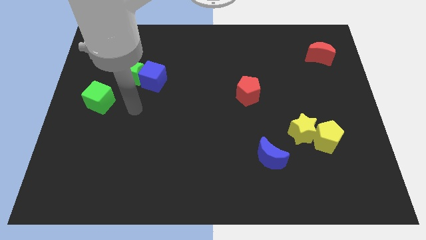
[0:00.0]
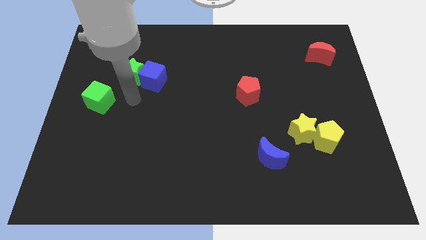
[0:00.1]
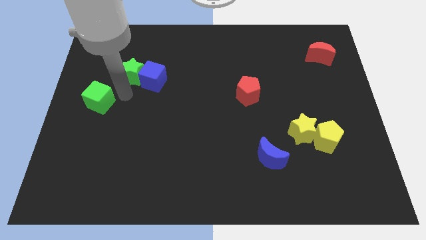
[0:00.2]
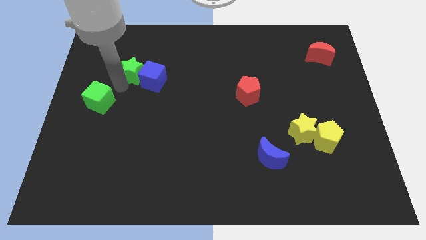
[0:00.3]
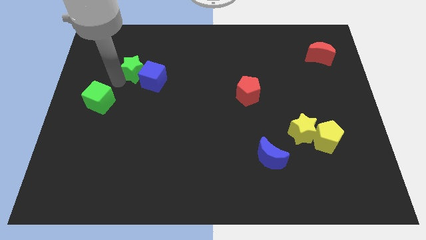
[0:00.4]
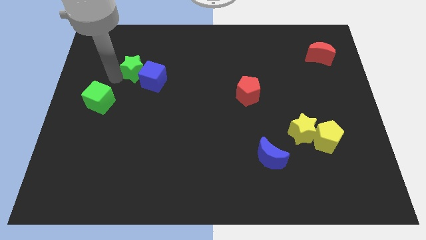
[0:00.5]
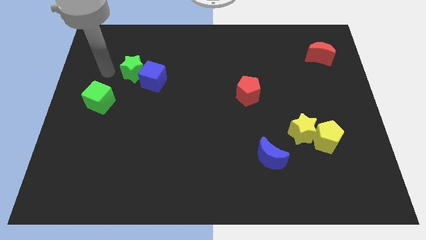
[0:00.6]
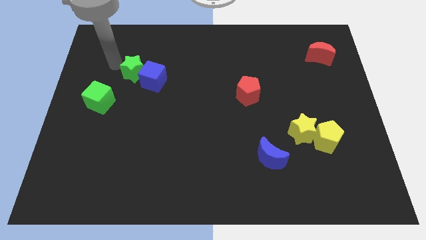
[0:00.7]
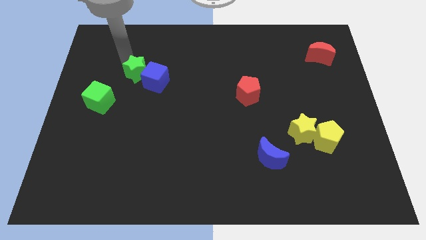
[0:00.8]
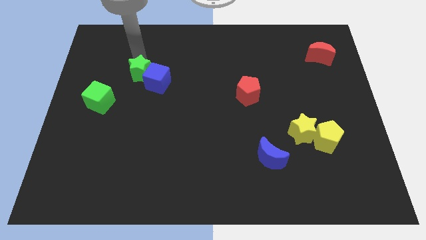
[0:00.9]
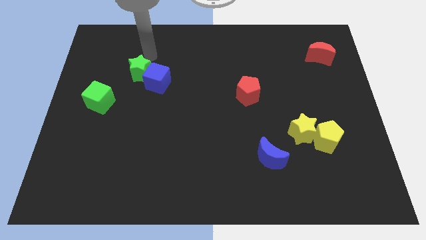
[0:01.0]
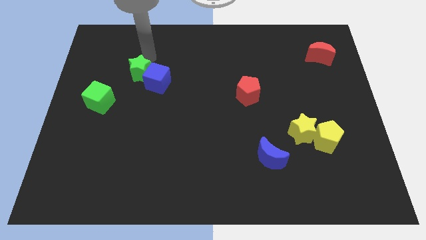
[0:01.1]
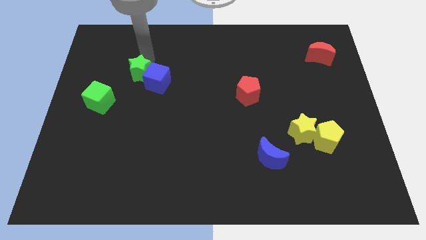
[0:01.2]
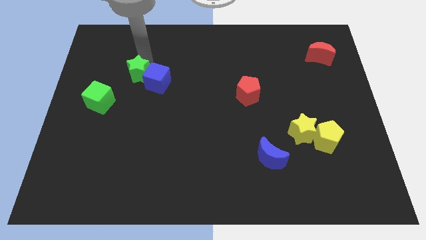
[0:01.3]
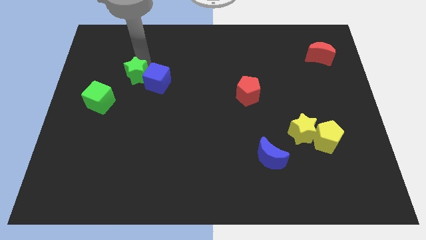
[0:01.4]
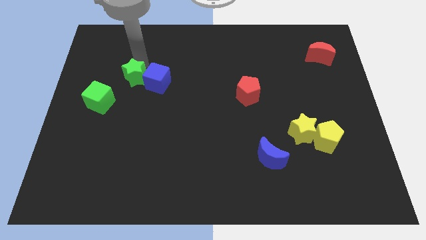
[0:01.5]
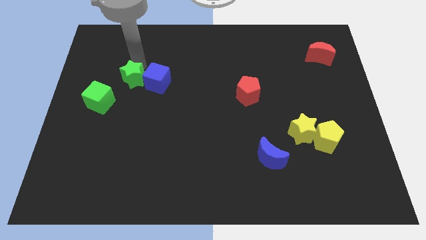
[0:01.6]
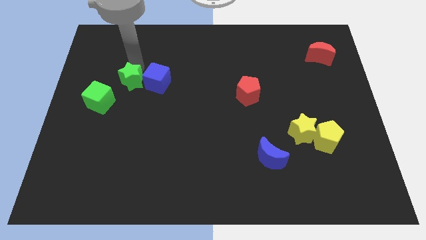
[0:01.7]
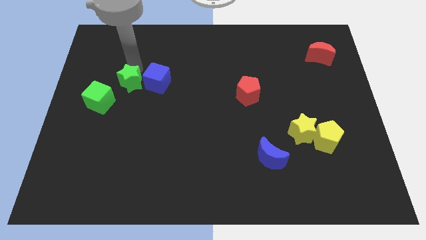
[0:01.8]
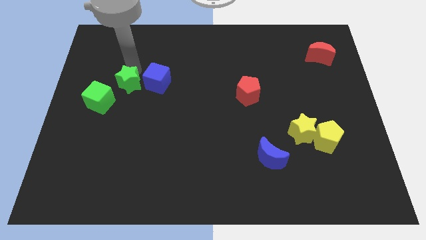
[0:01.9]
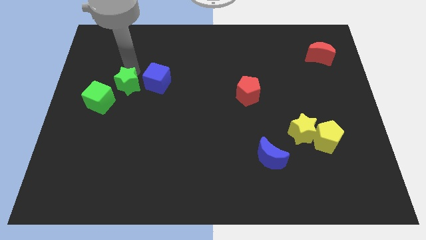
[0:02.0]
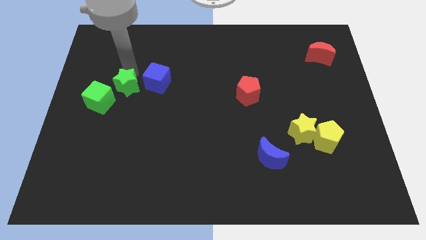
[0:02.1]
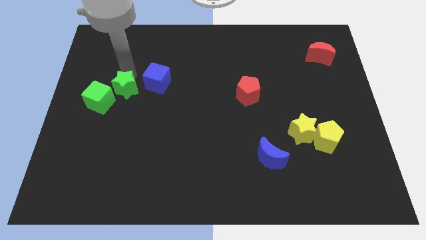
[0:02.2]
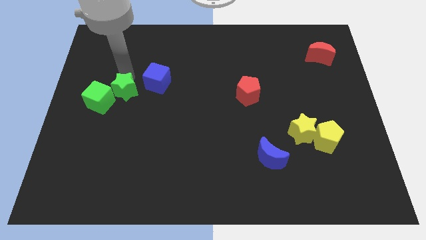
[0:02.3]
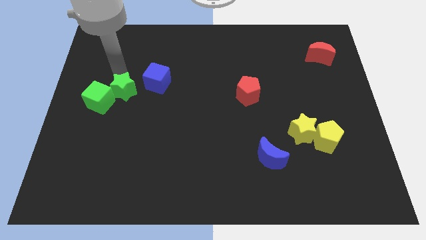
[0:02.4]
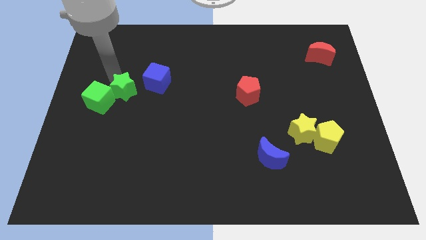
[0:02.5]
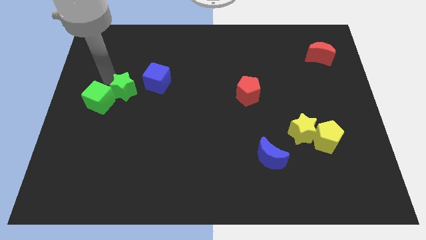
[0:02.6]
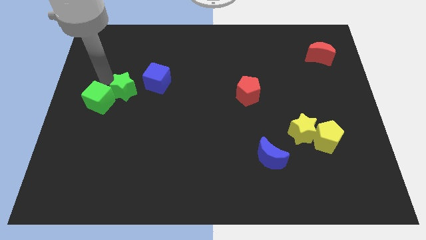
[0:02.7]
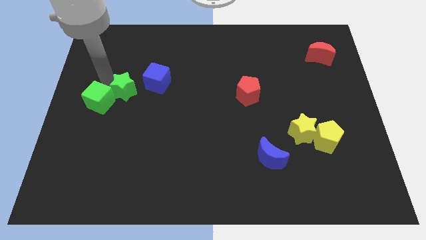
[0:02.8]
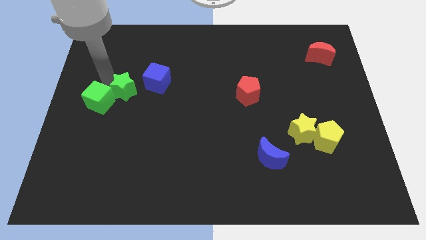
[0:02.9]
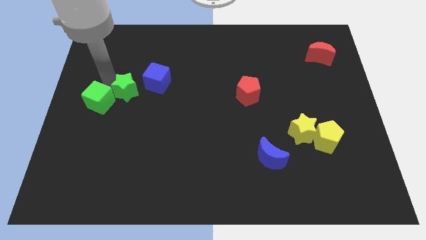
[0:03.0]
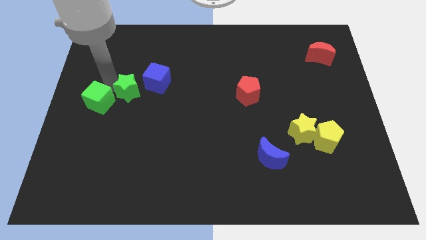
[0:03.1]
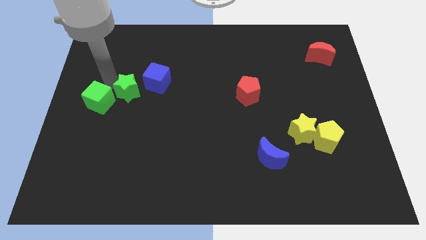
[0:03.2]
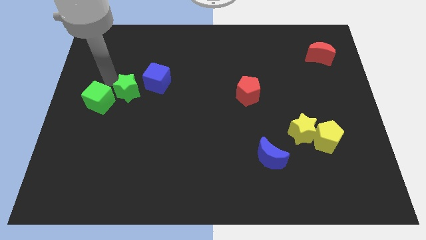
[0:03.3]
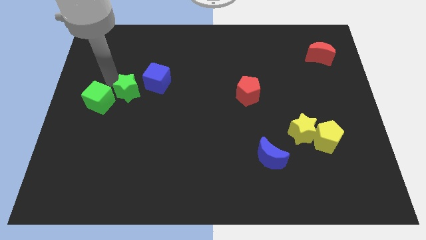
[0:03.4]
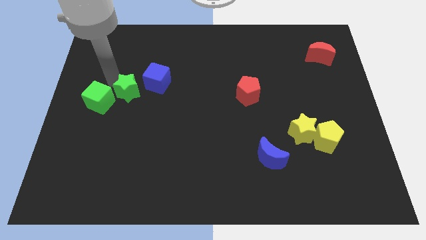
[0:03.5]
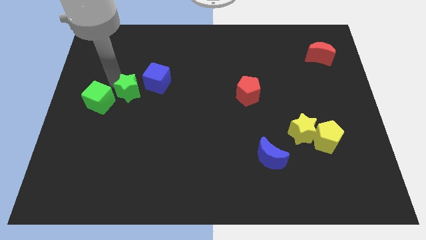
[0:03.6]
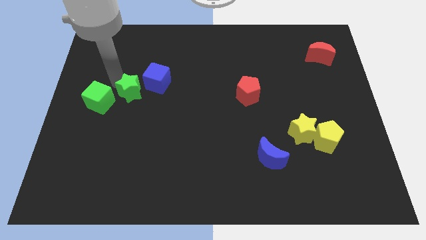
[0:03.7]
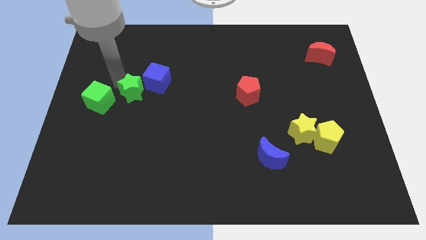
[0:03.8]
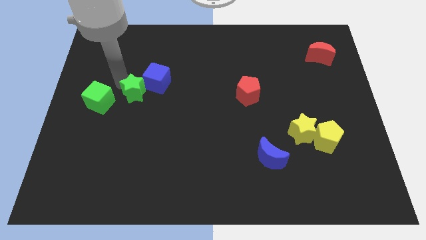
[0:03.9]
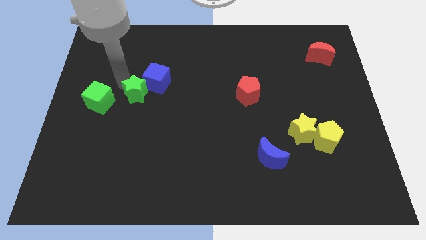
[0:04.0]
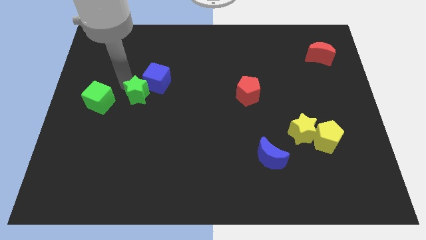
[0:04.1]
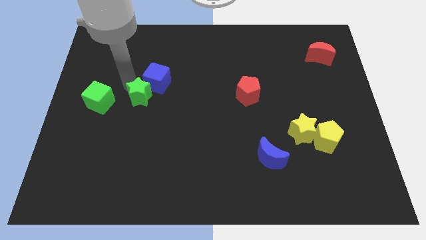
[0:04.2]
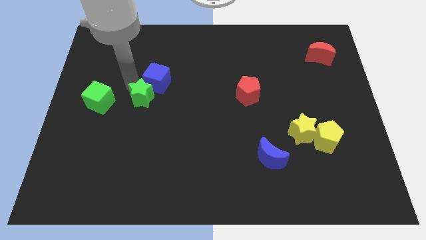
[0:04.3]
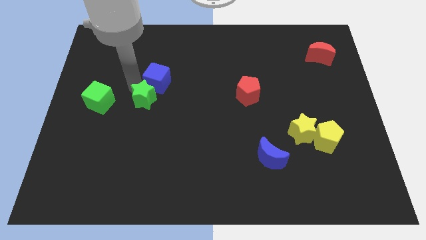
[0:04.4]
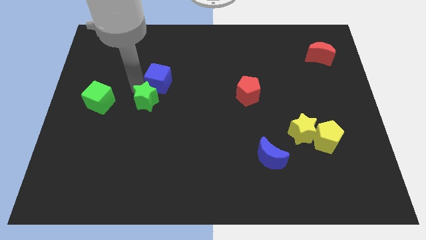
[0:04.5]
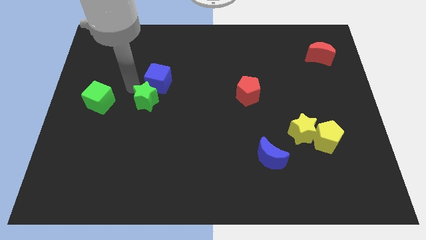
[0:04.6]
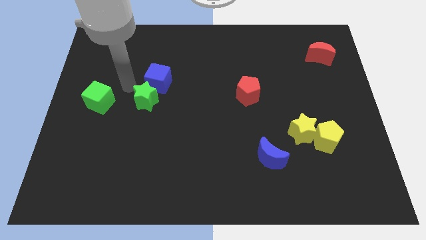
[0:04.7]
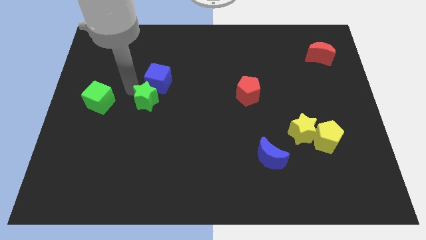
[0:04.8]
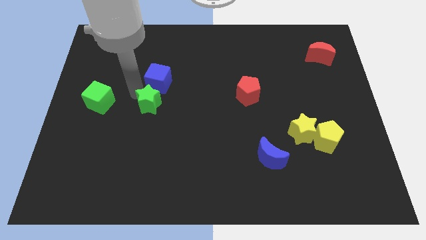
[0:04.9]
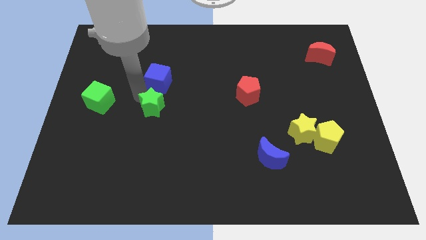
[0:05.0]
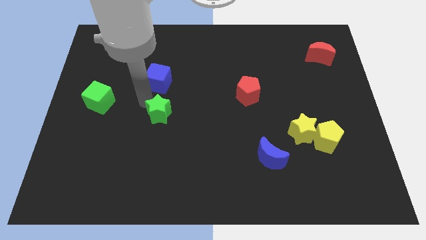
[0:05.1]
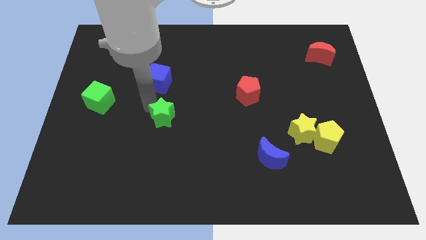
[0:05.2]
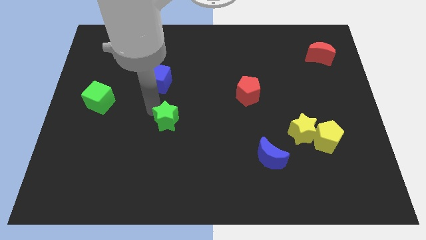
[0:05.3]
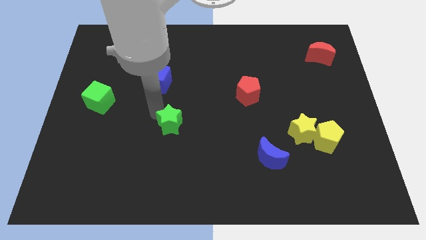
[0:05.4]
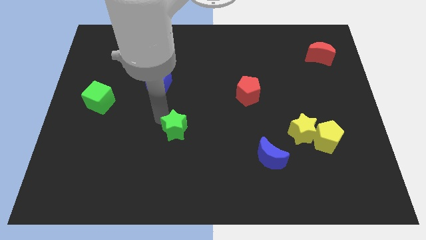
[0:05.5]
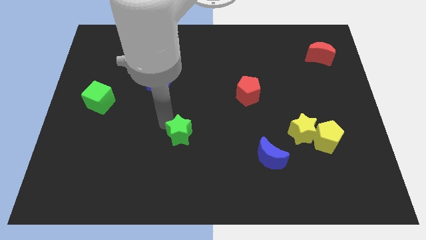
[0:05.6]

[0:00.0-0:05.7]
slide the green star downwards and right diagonally

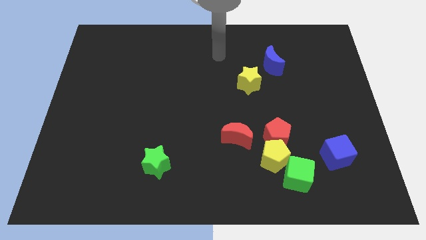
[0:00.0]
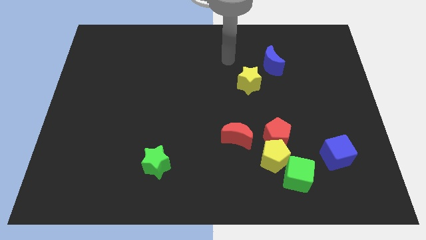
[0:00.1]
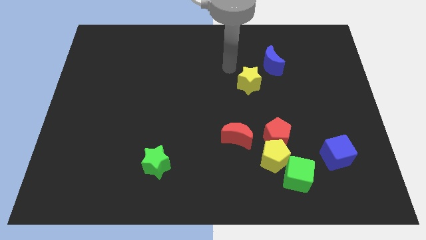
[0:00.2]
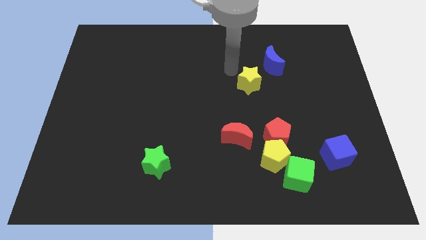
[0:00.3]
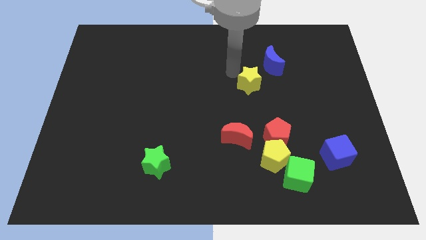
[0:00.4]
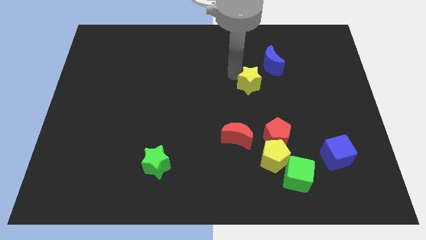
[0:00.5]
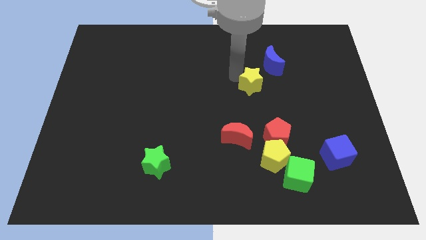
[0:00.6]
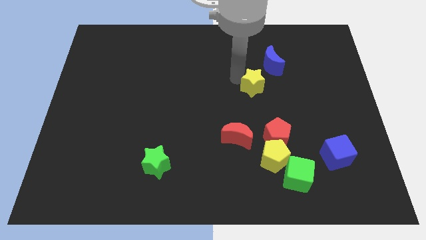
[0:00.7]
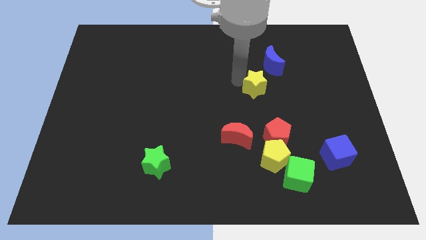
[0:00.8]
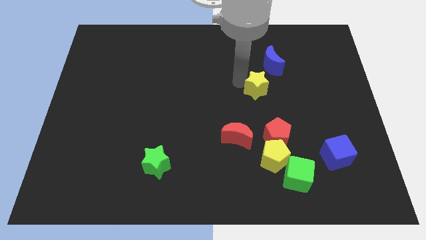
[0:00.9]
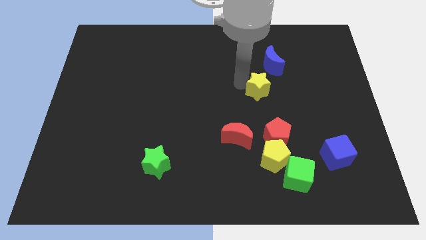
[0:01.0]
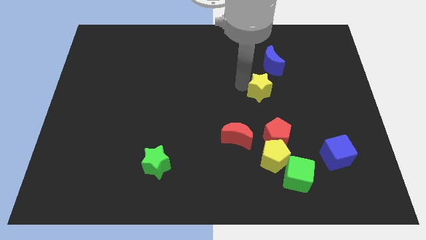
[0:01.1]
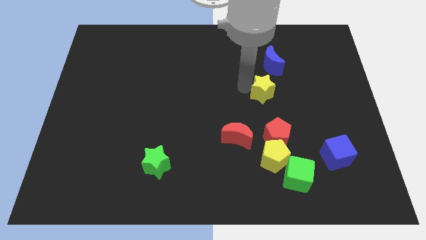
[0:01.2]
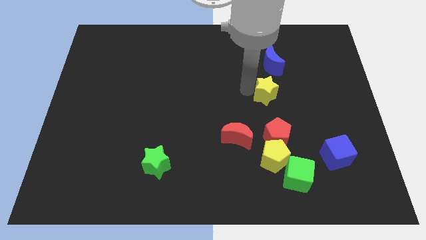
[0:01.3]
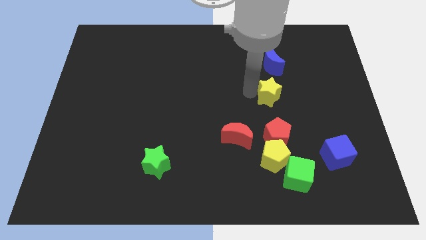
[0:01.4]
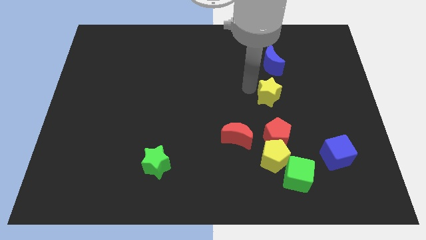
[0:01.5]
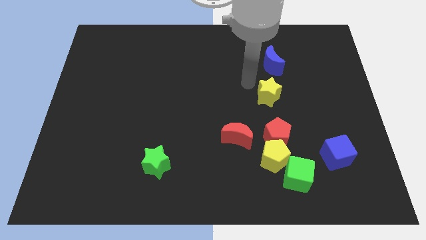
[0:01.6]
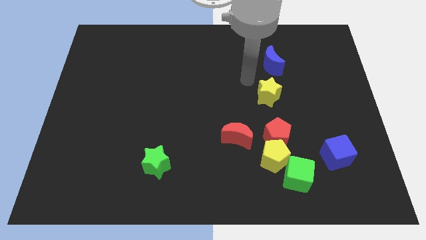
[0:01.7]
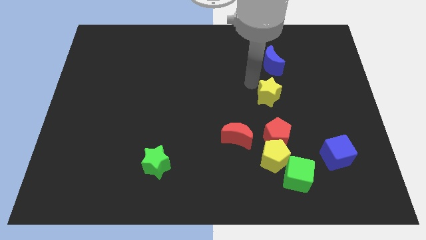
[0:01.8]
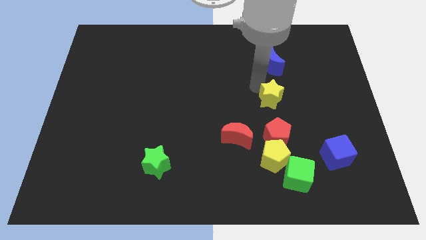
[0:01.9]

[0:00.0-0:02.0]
move the yellow star somewhat downwards and to the right

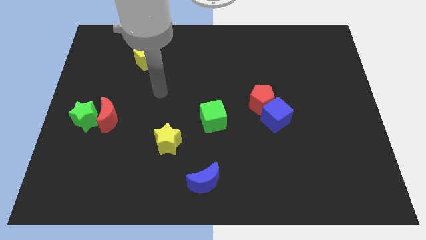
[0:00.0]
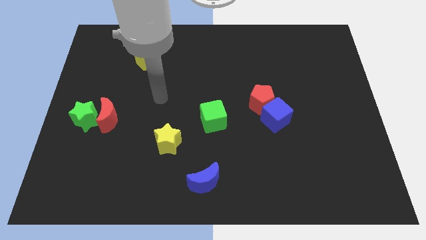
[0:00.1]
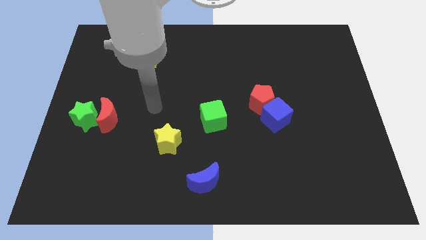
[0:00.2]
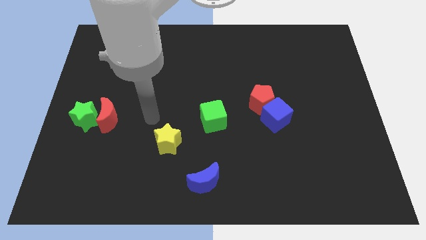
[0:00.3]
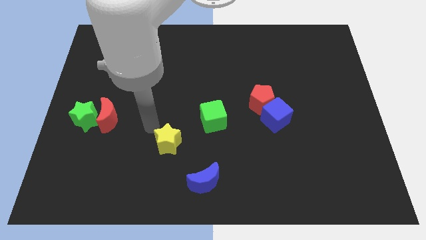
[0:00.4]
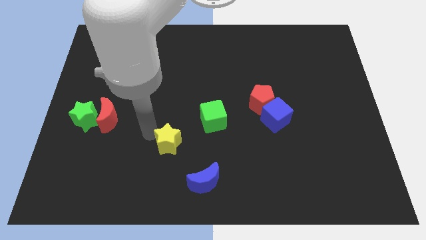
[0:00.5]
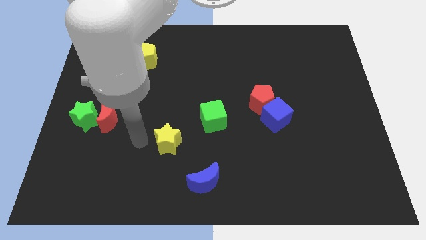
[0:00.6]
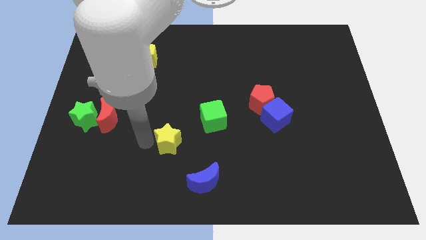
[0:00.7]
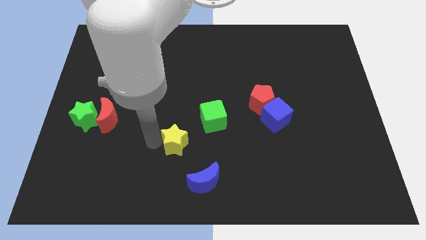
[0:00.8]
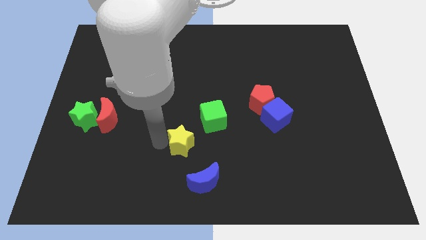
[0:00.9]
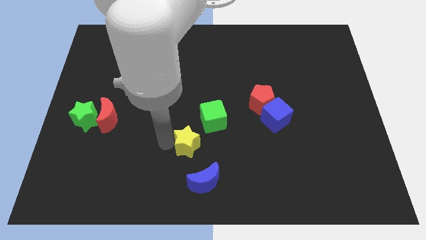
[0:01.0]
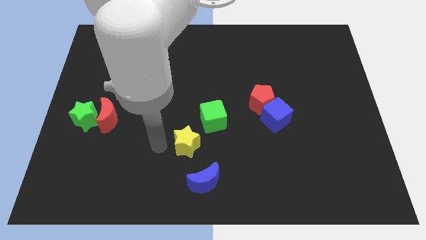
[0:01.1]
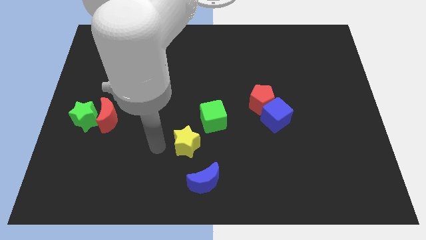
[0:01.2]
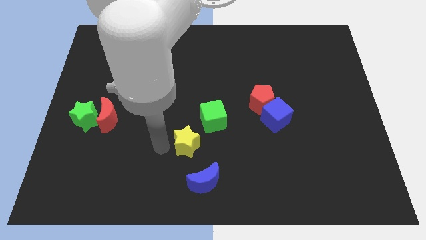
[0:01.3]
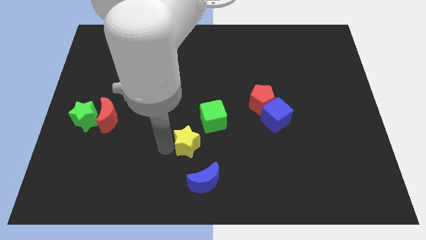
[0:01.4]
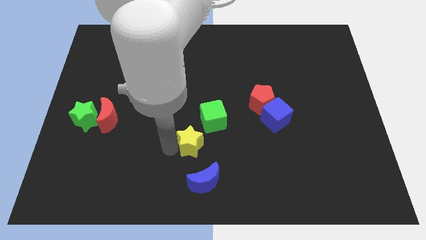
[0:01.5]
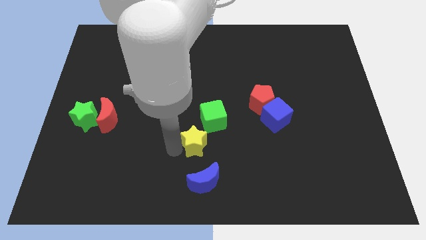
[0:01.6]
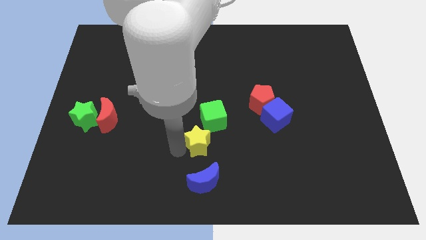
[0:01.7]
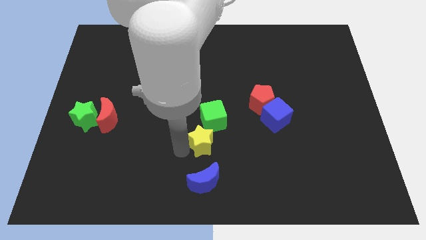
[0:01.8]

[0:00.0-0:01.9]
slightly push the yellow star to the right
